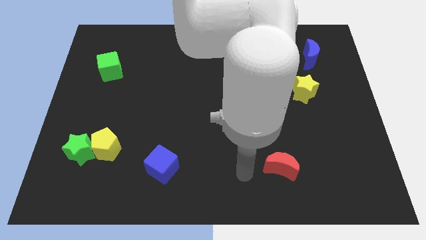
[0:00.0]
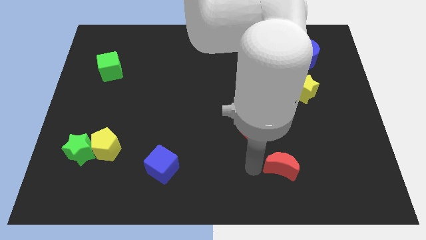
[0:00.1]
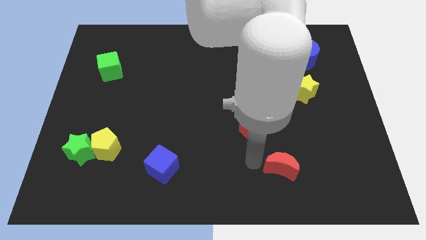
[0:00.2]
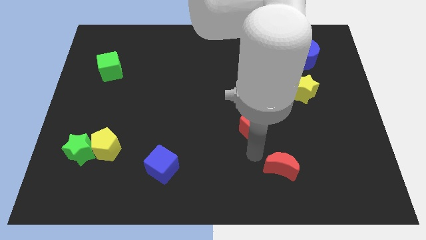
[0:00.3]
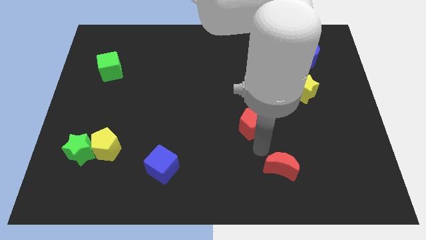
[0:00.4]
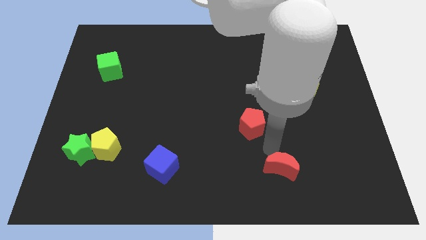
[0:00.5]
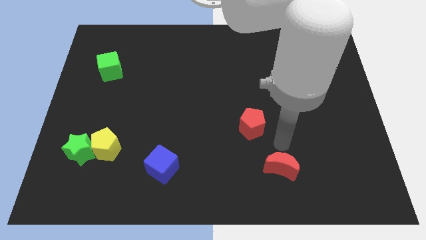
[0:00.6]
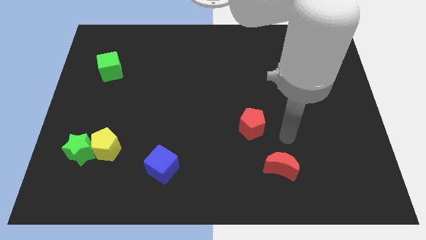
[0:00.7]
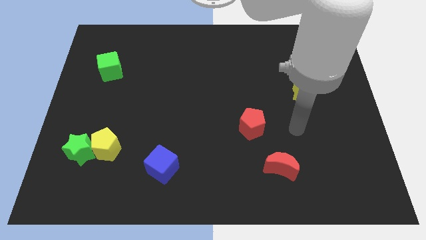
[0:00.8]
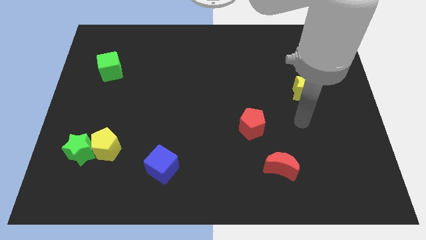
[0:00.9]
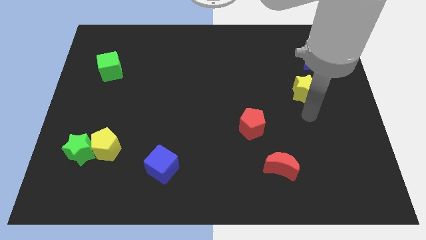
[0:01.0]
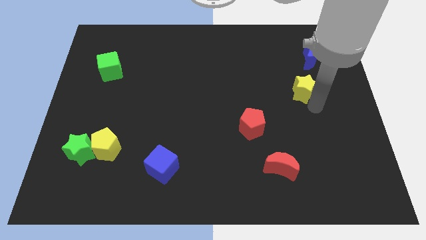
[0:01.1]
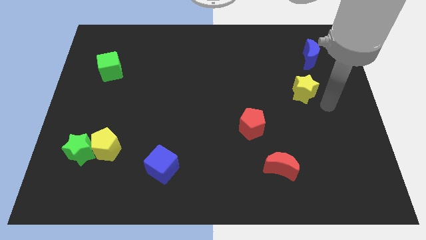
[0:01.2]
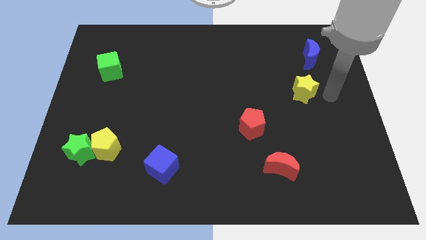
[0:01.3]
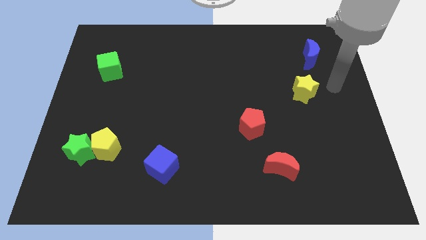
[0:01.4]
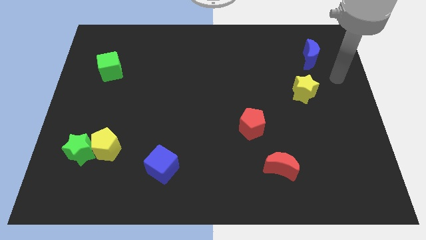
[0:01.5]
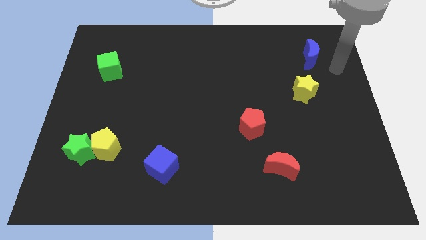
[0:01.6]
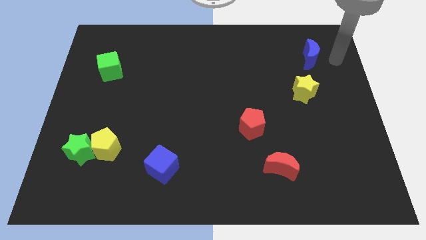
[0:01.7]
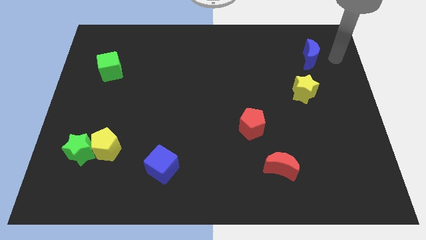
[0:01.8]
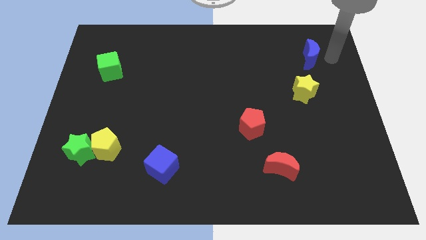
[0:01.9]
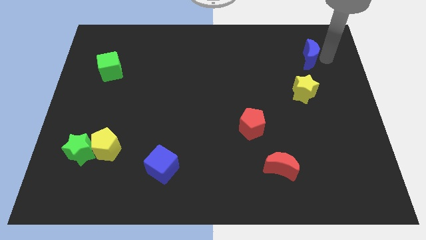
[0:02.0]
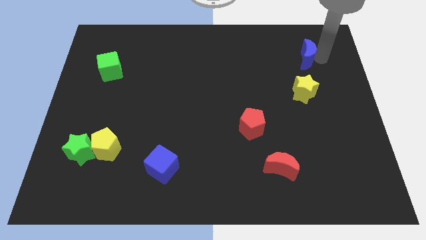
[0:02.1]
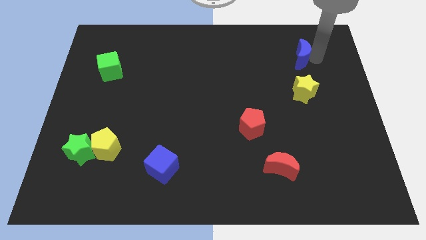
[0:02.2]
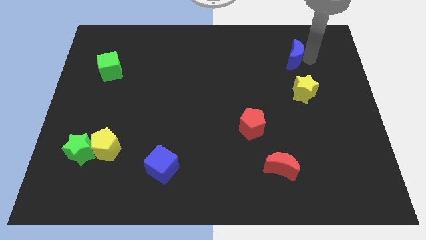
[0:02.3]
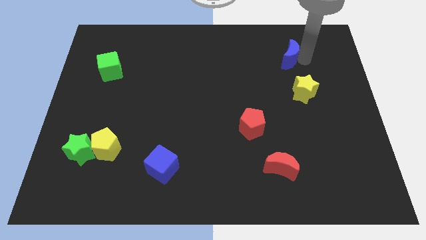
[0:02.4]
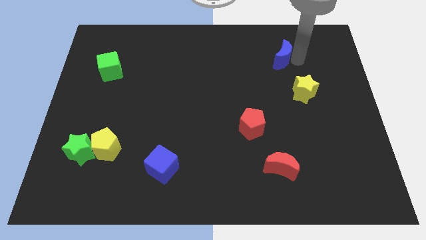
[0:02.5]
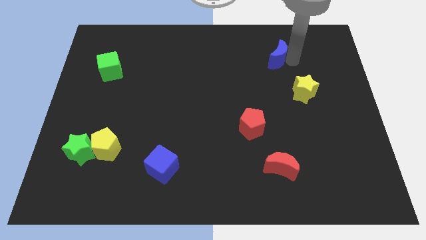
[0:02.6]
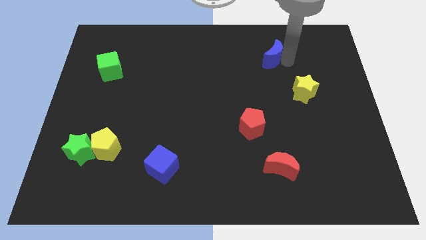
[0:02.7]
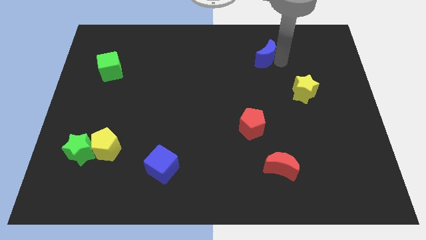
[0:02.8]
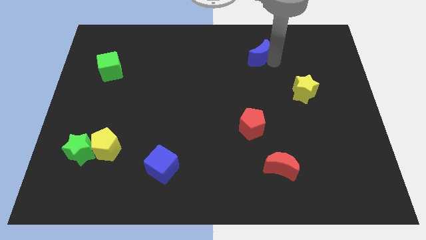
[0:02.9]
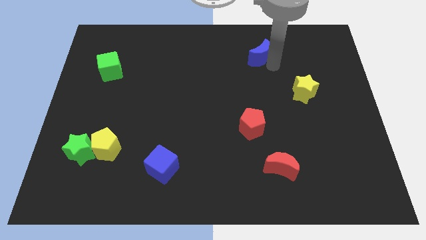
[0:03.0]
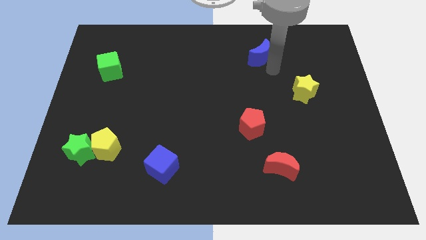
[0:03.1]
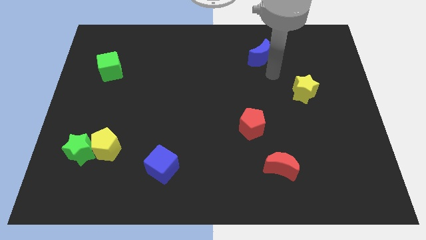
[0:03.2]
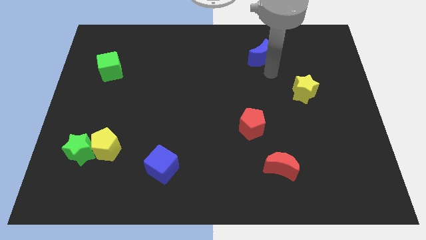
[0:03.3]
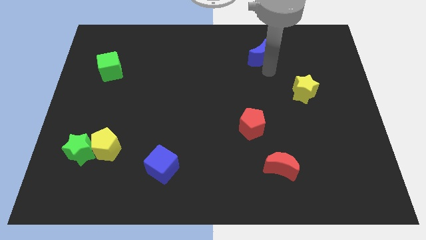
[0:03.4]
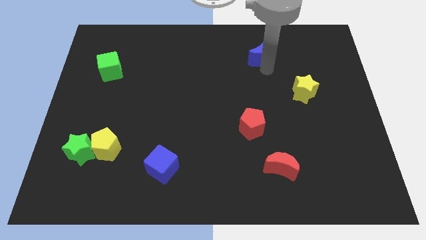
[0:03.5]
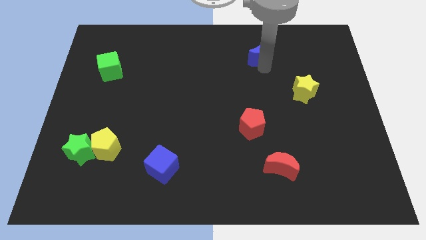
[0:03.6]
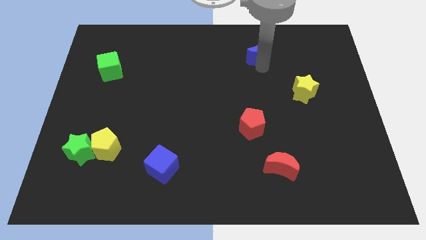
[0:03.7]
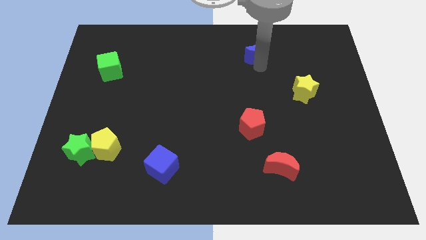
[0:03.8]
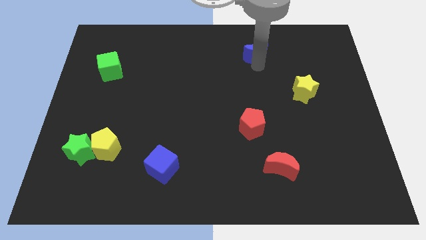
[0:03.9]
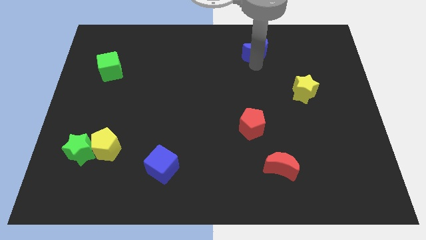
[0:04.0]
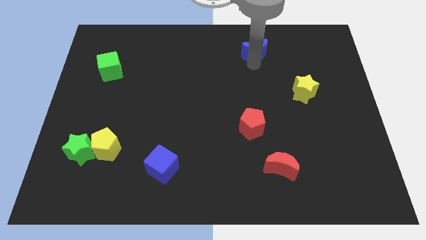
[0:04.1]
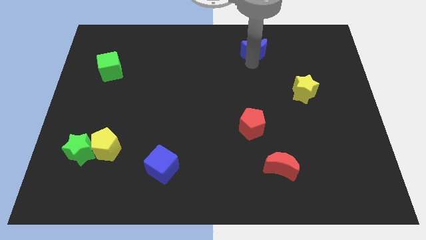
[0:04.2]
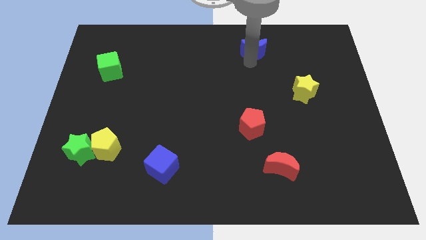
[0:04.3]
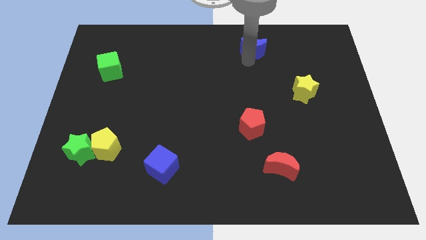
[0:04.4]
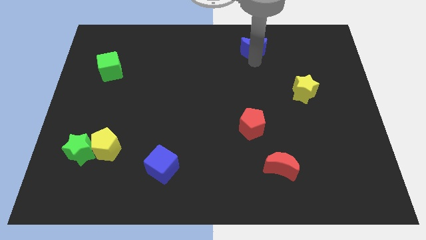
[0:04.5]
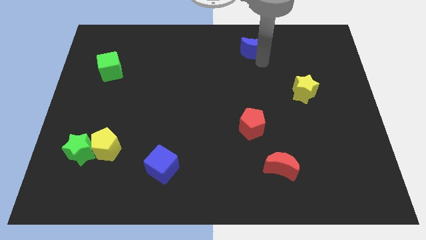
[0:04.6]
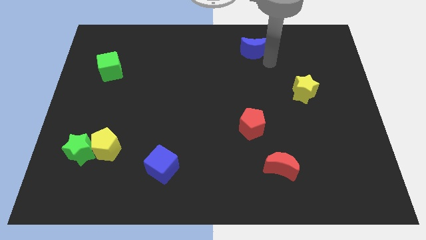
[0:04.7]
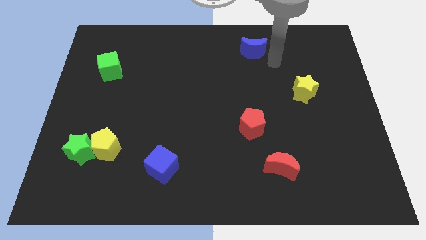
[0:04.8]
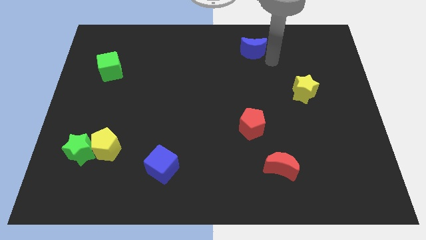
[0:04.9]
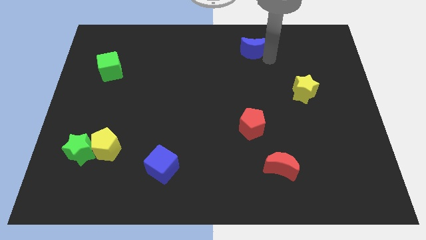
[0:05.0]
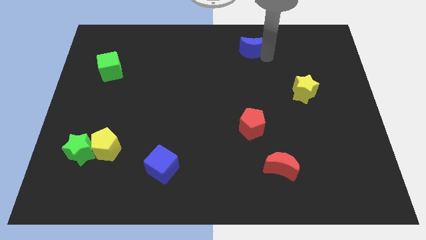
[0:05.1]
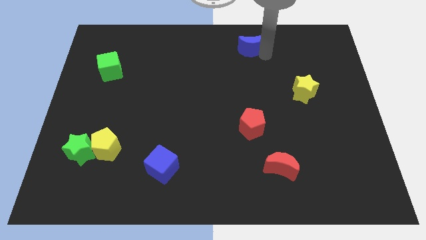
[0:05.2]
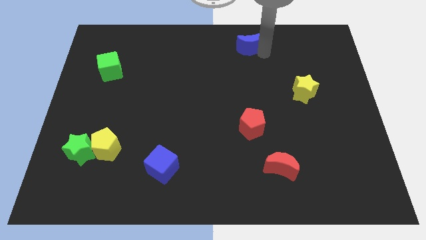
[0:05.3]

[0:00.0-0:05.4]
move the blue moon to the top side

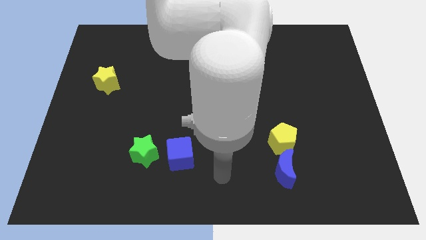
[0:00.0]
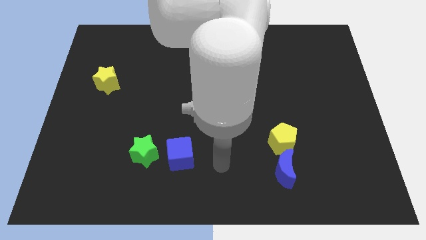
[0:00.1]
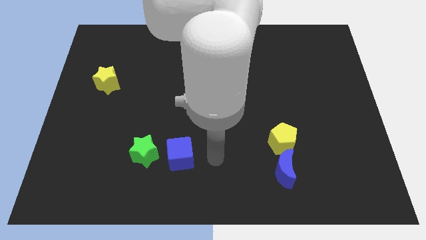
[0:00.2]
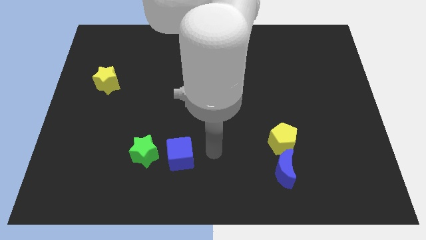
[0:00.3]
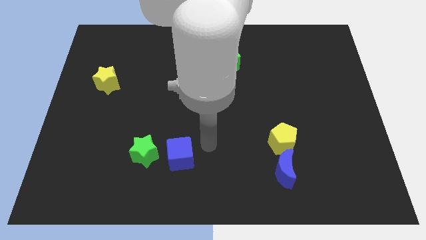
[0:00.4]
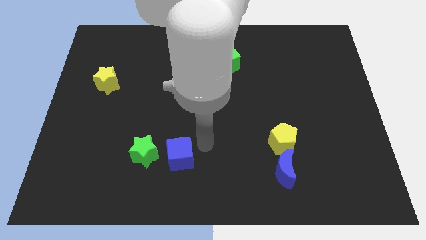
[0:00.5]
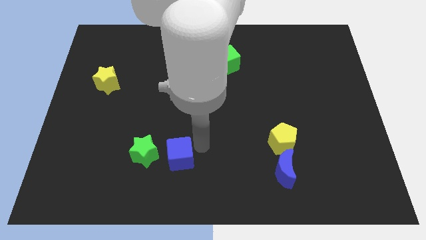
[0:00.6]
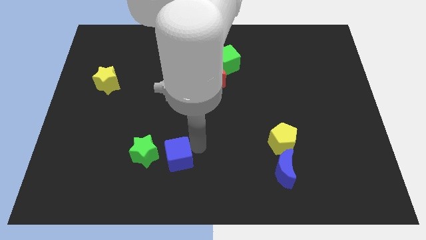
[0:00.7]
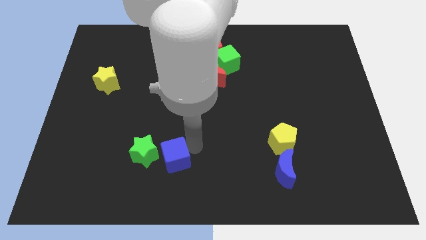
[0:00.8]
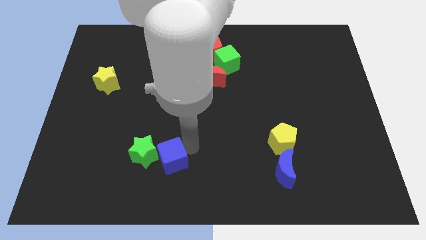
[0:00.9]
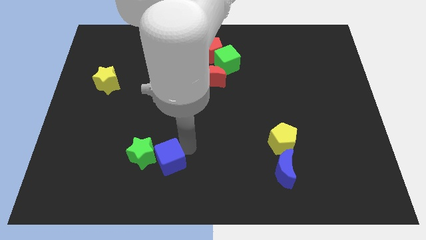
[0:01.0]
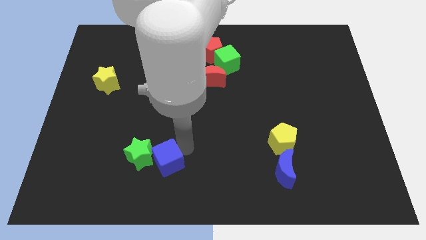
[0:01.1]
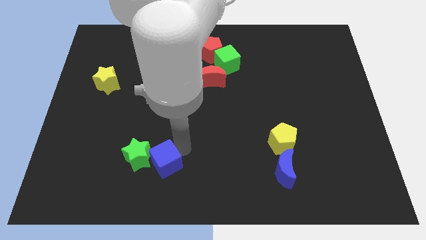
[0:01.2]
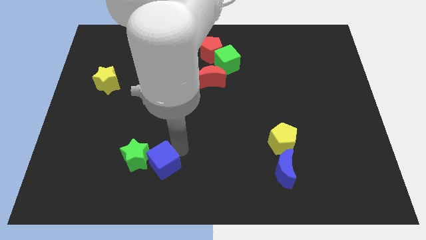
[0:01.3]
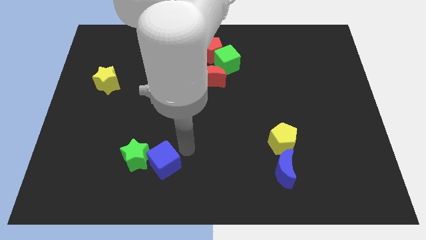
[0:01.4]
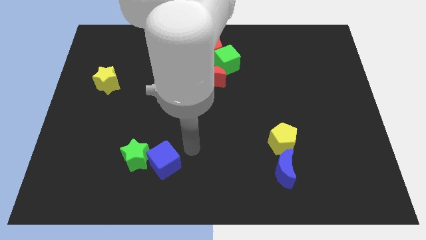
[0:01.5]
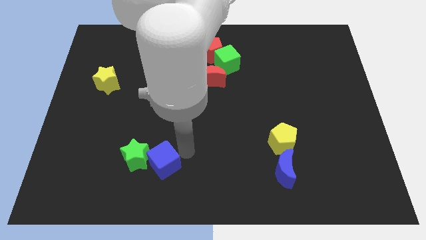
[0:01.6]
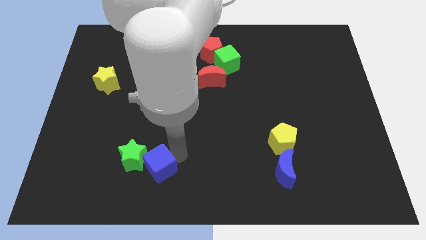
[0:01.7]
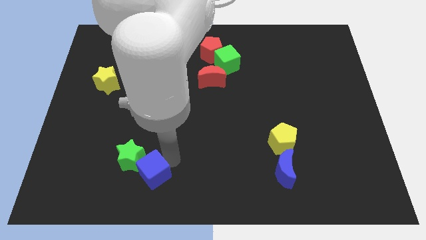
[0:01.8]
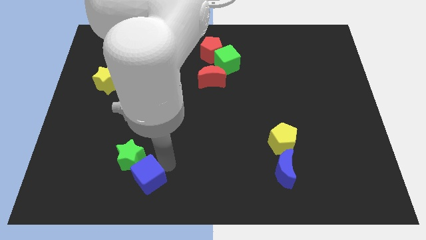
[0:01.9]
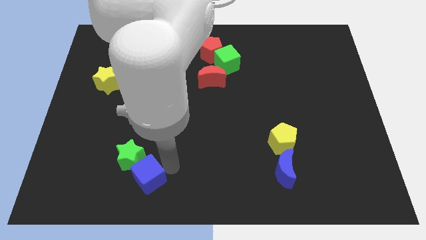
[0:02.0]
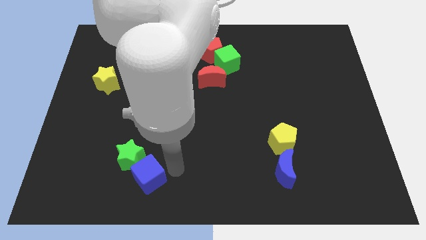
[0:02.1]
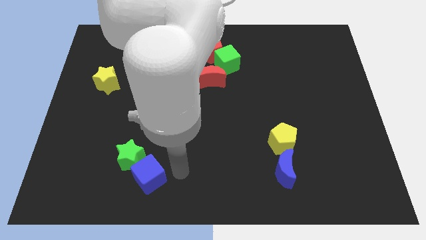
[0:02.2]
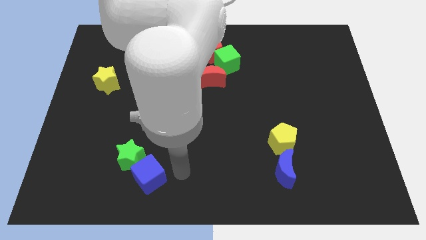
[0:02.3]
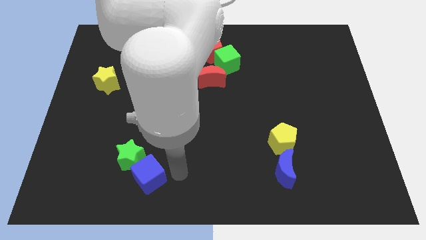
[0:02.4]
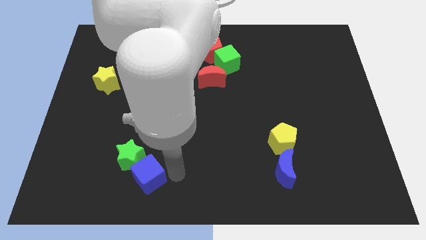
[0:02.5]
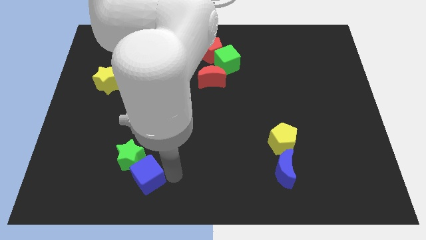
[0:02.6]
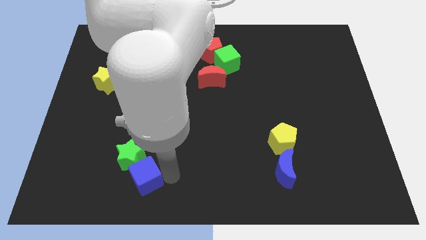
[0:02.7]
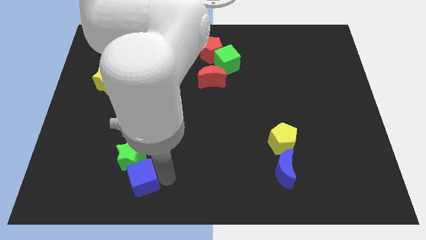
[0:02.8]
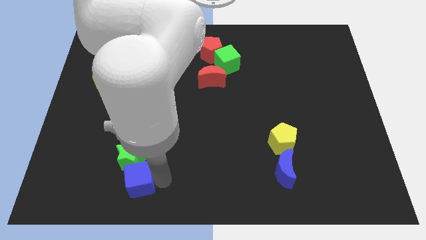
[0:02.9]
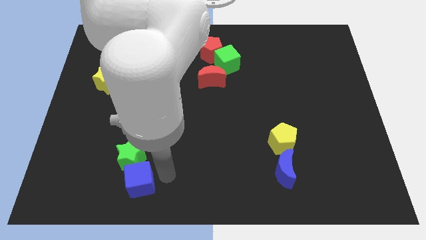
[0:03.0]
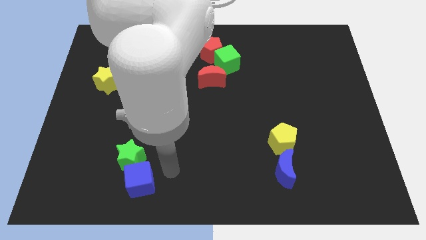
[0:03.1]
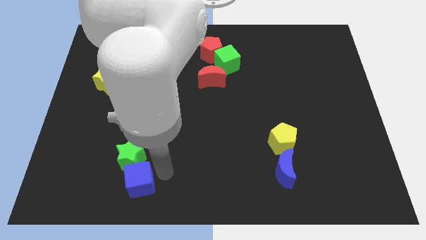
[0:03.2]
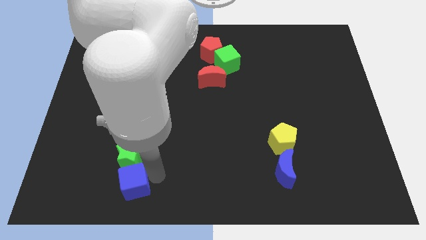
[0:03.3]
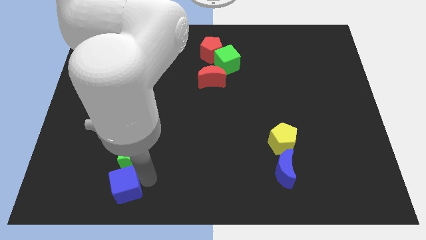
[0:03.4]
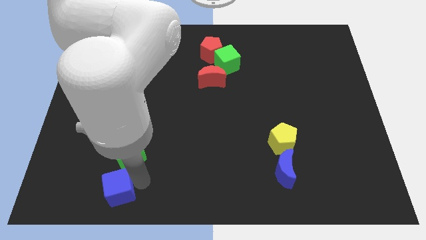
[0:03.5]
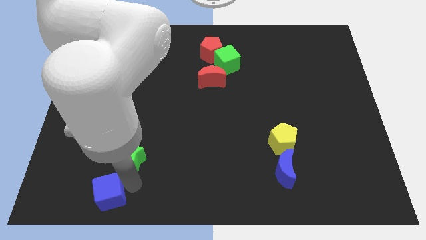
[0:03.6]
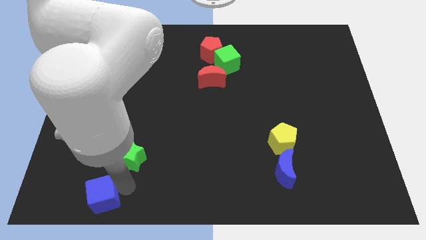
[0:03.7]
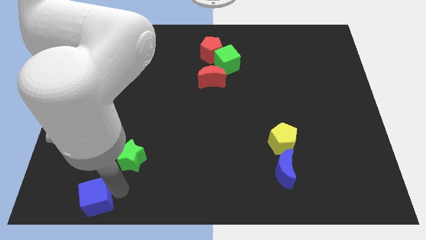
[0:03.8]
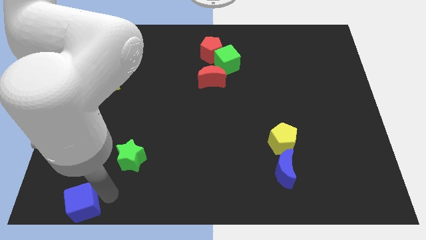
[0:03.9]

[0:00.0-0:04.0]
push the blue cube to the lower left corner
